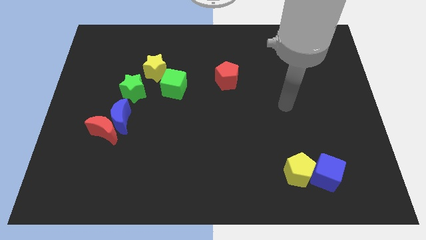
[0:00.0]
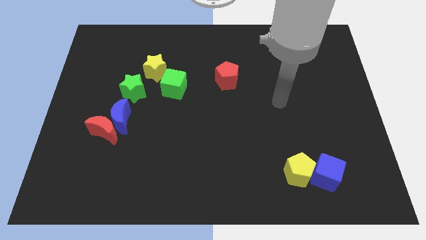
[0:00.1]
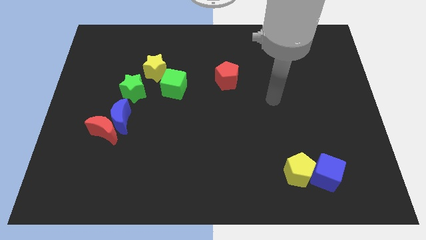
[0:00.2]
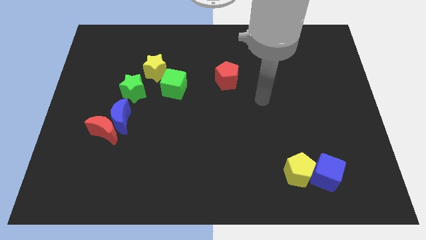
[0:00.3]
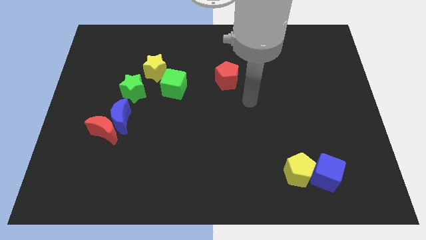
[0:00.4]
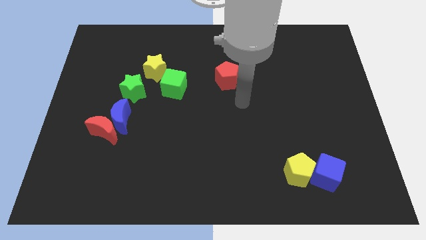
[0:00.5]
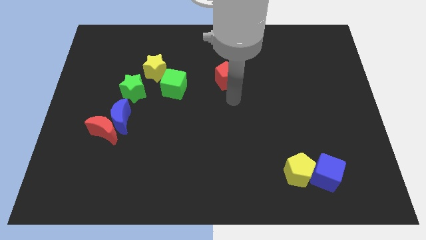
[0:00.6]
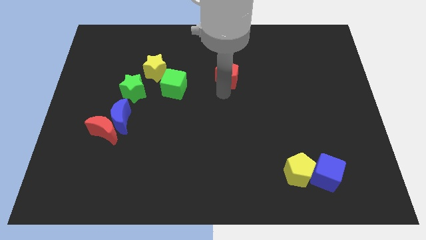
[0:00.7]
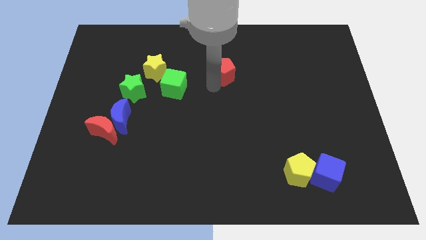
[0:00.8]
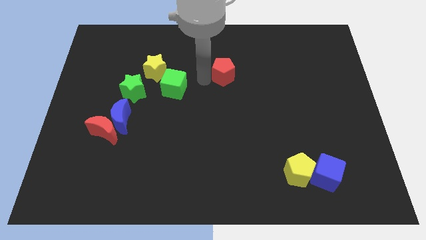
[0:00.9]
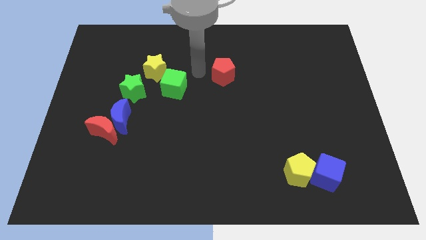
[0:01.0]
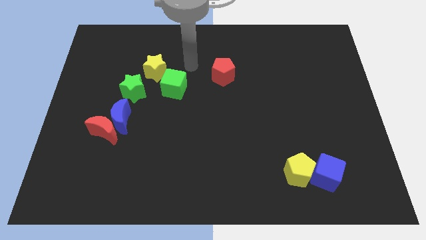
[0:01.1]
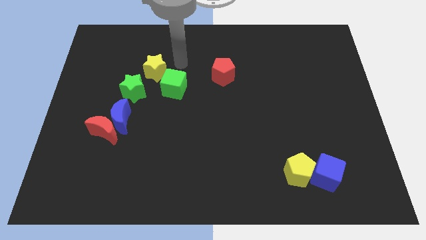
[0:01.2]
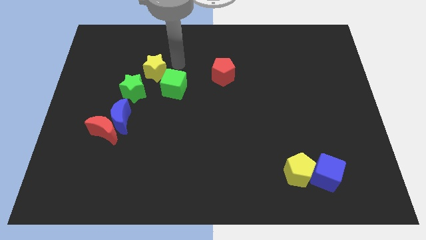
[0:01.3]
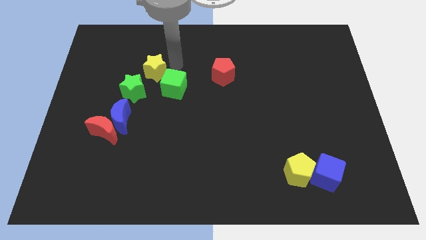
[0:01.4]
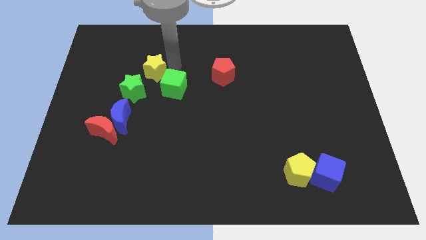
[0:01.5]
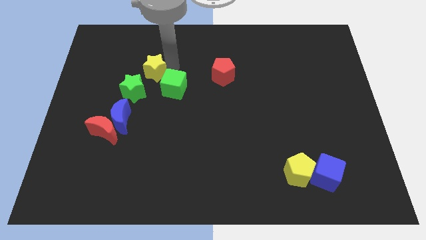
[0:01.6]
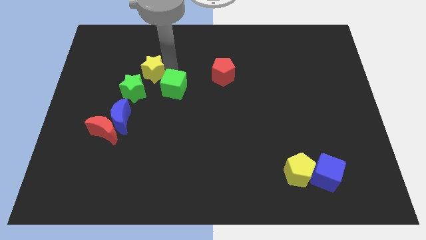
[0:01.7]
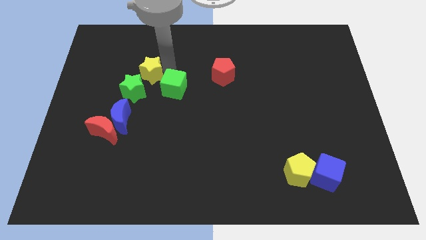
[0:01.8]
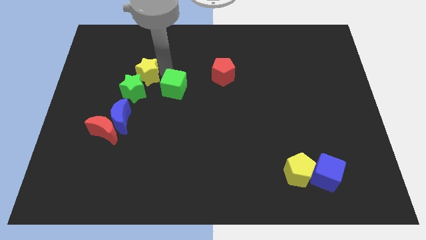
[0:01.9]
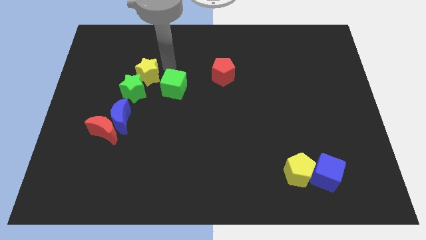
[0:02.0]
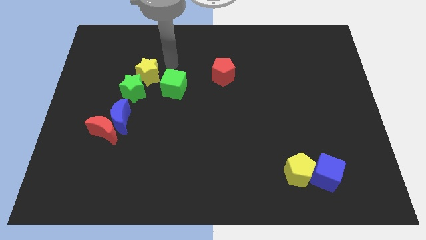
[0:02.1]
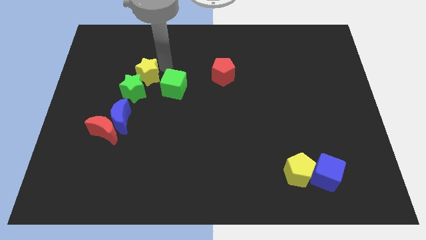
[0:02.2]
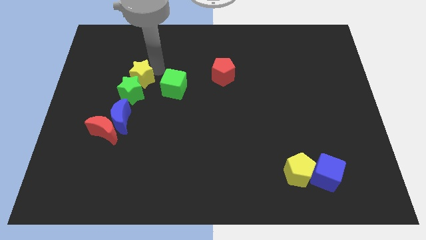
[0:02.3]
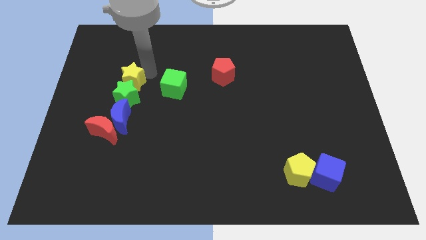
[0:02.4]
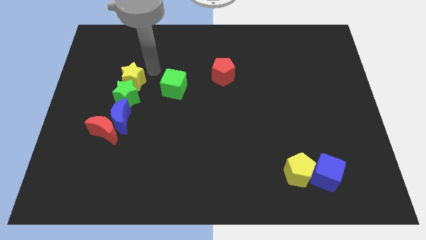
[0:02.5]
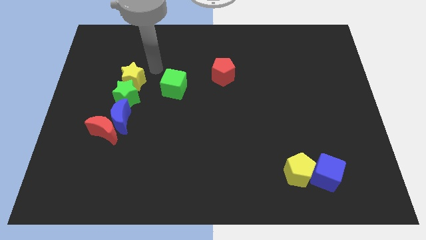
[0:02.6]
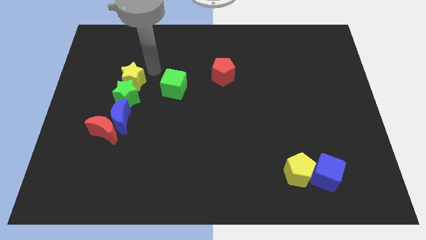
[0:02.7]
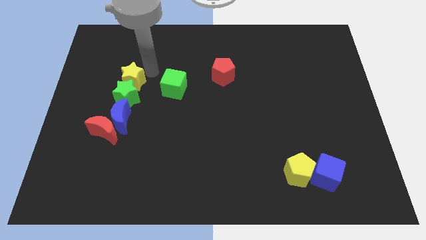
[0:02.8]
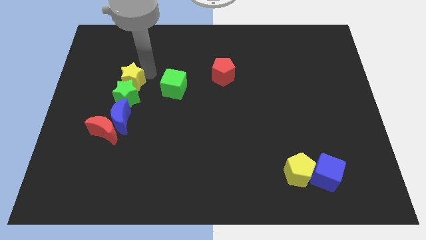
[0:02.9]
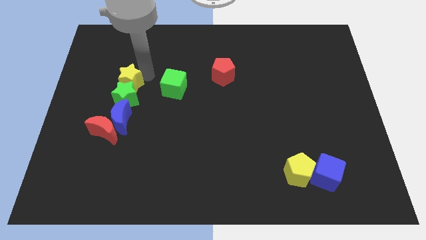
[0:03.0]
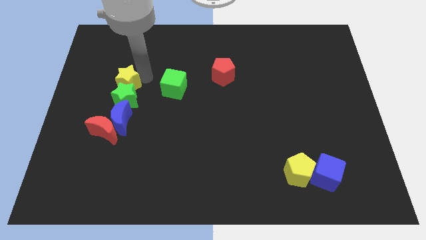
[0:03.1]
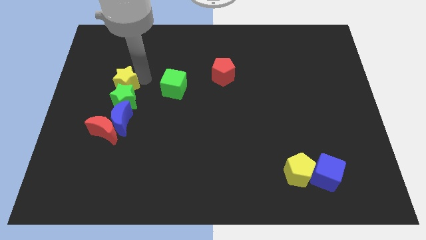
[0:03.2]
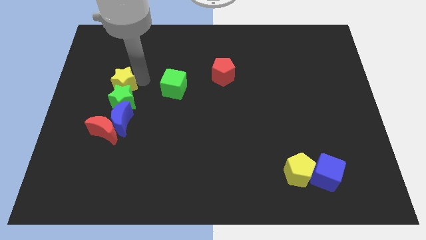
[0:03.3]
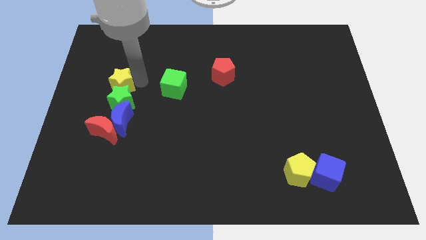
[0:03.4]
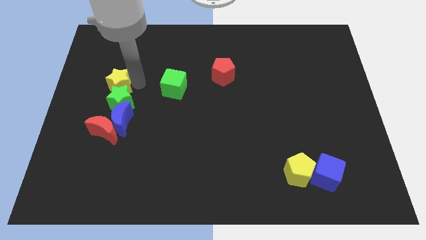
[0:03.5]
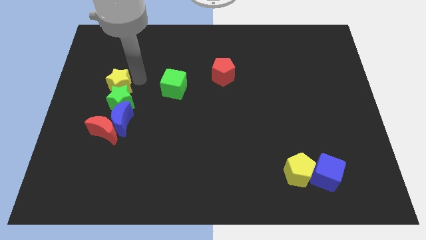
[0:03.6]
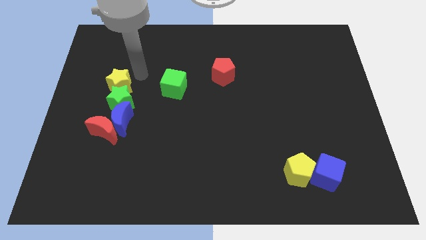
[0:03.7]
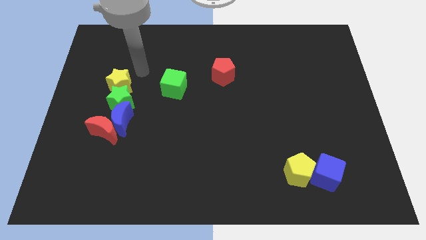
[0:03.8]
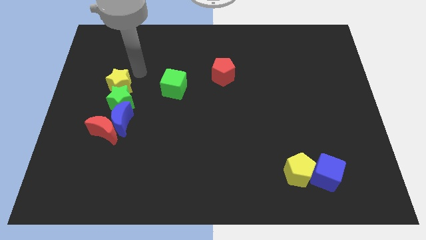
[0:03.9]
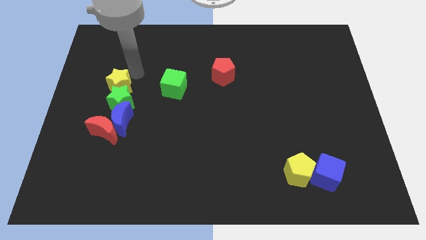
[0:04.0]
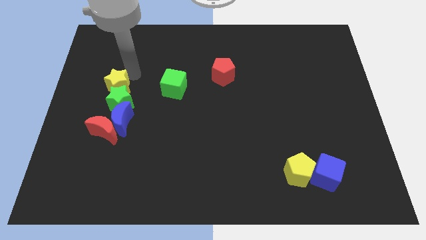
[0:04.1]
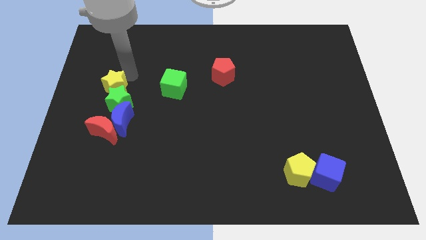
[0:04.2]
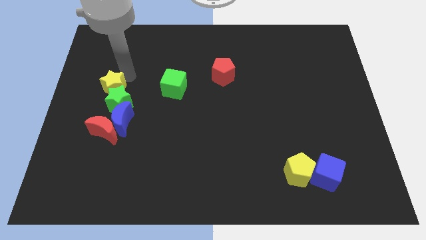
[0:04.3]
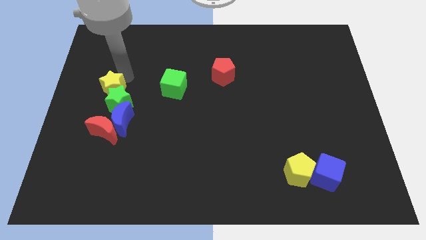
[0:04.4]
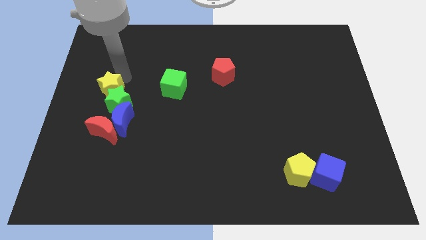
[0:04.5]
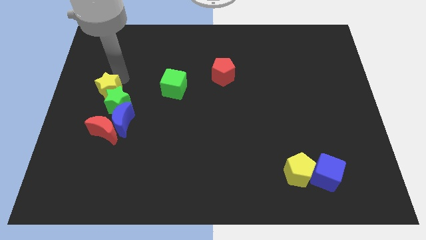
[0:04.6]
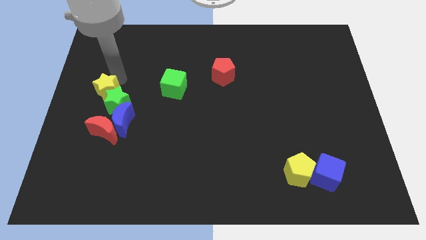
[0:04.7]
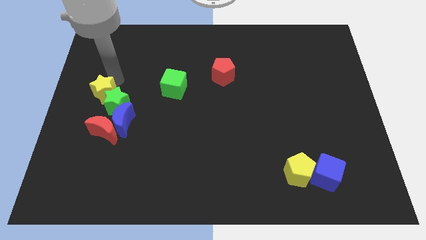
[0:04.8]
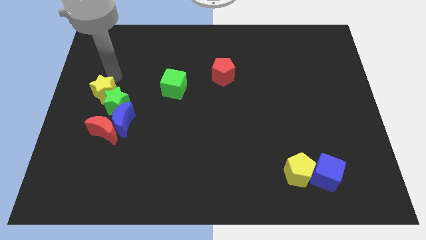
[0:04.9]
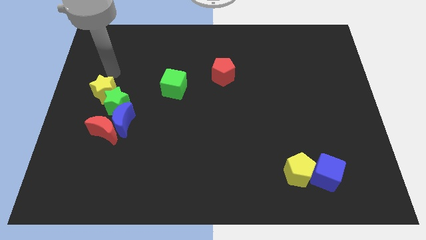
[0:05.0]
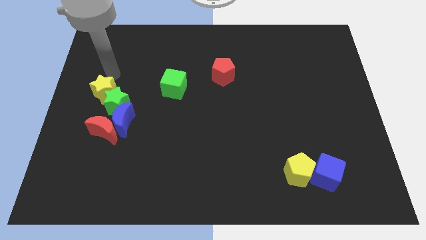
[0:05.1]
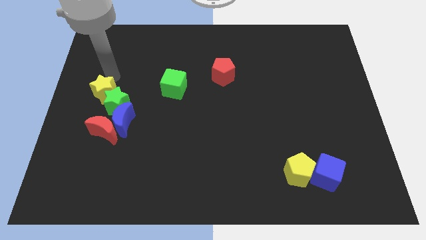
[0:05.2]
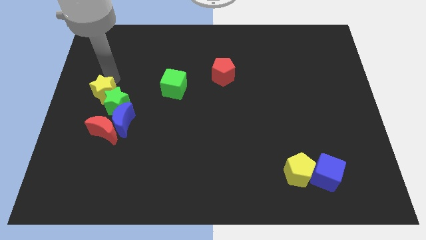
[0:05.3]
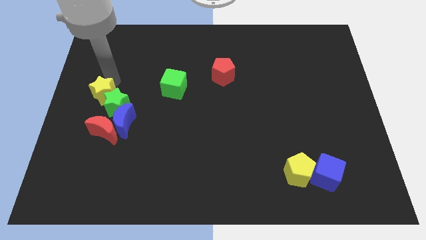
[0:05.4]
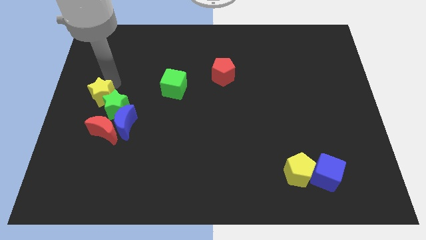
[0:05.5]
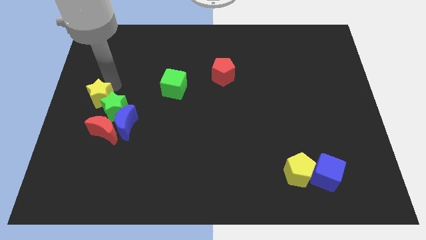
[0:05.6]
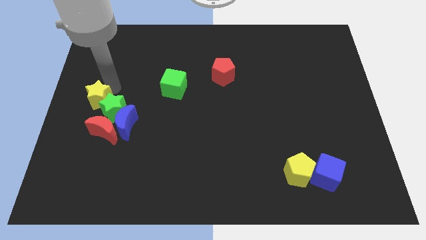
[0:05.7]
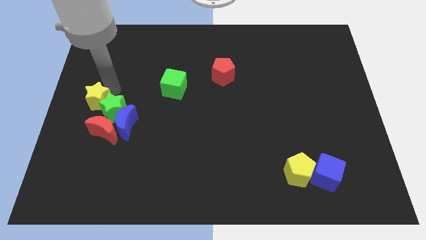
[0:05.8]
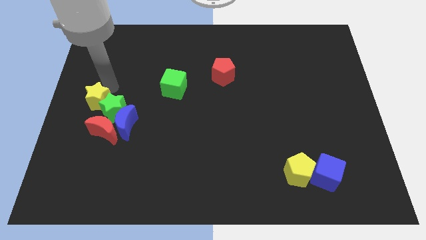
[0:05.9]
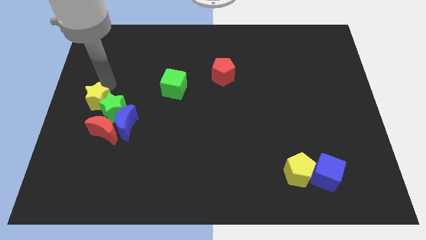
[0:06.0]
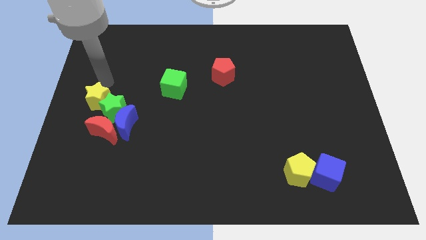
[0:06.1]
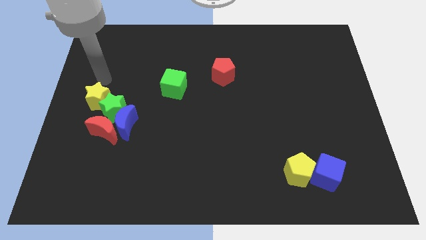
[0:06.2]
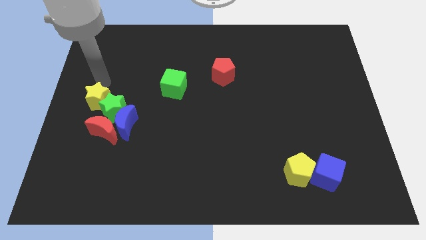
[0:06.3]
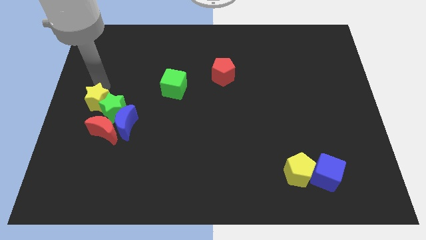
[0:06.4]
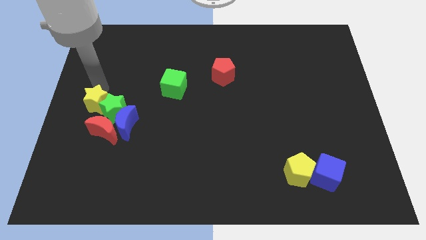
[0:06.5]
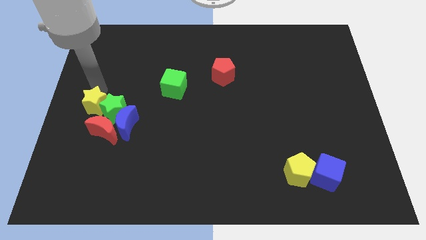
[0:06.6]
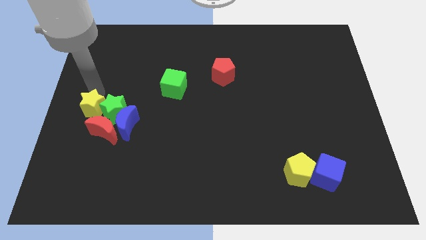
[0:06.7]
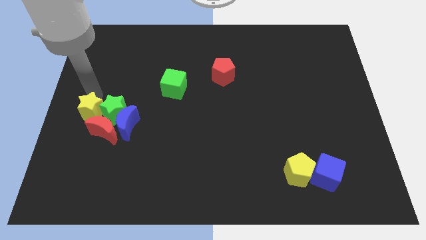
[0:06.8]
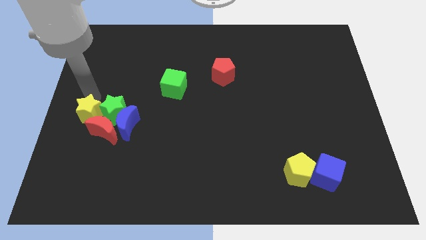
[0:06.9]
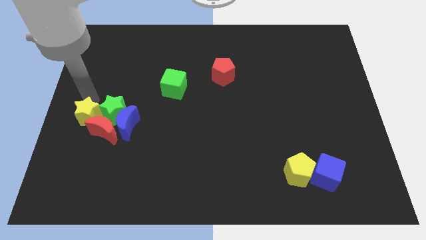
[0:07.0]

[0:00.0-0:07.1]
slide the yellow star next to the red moon

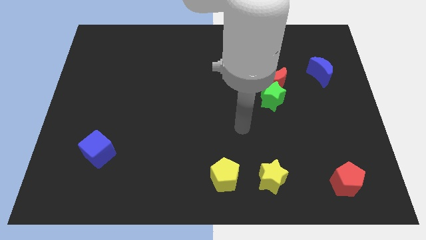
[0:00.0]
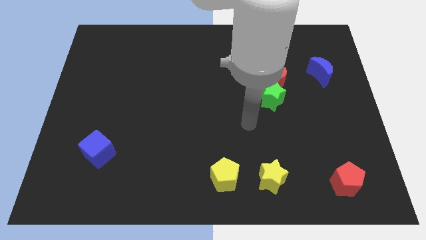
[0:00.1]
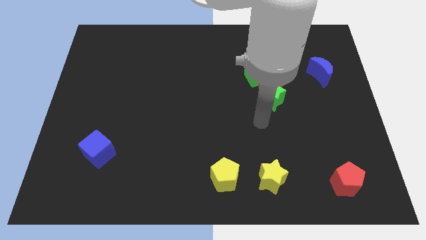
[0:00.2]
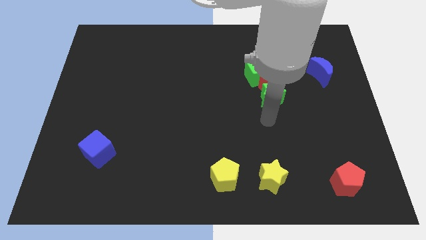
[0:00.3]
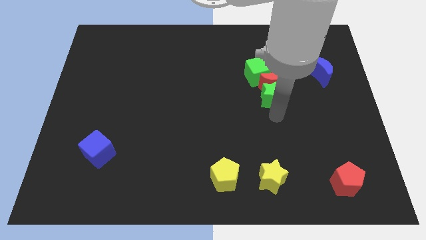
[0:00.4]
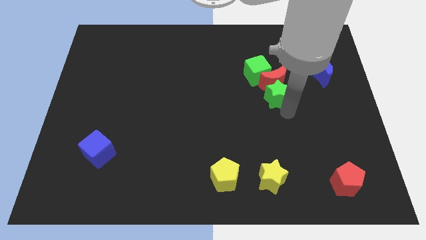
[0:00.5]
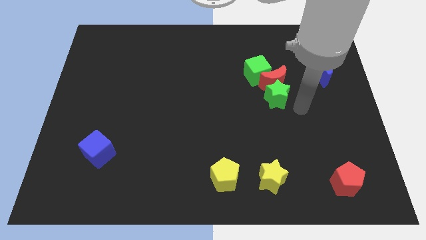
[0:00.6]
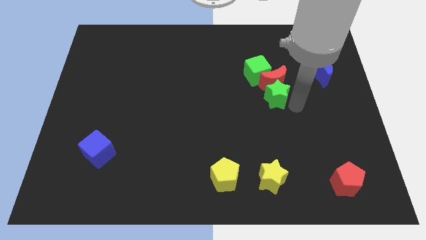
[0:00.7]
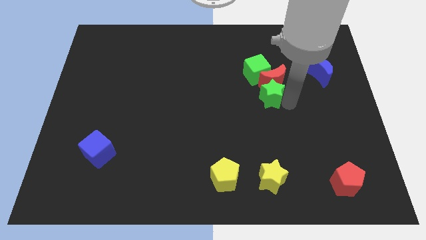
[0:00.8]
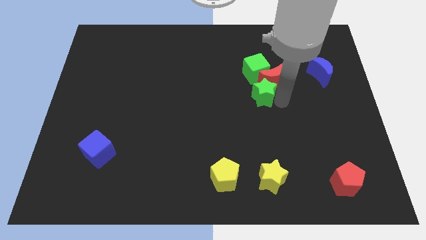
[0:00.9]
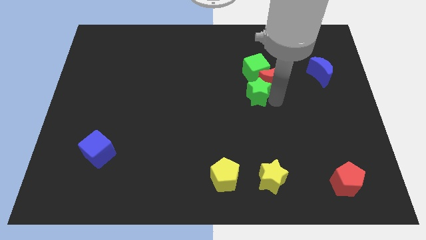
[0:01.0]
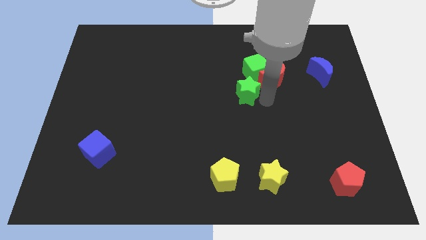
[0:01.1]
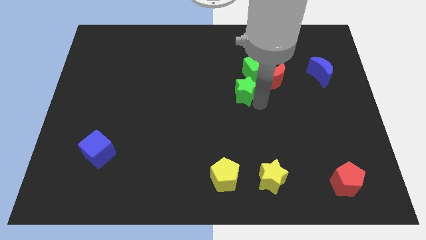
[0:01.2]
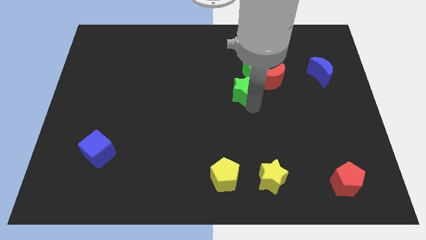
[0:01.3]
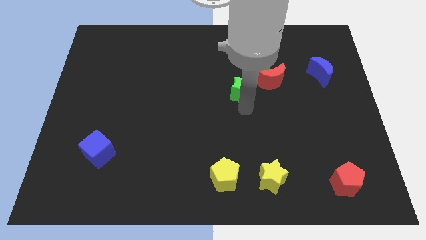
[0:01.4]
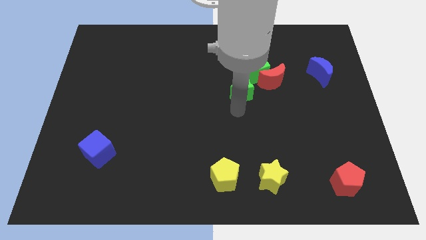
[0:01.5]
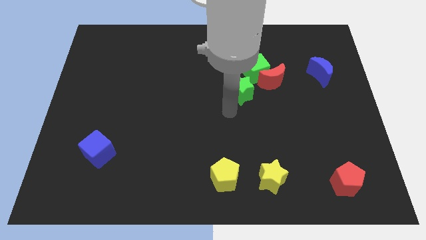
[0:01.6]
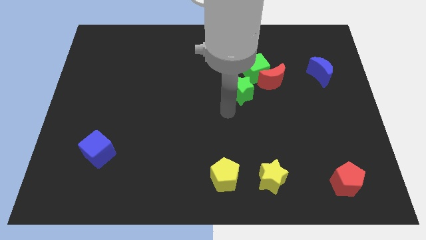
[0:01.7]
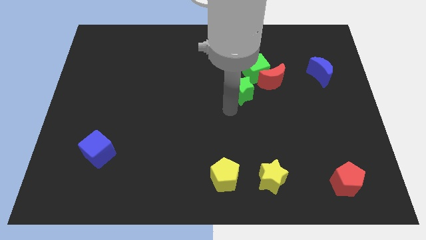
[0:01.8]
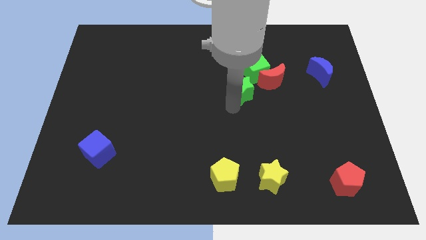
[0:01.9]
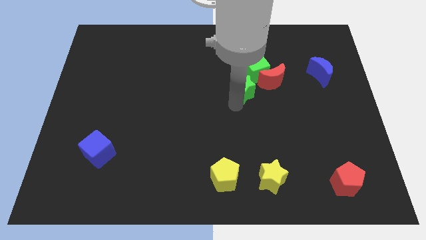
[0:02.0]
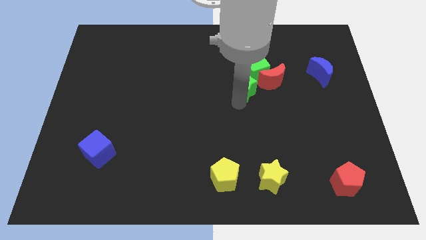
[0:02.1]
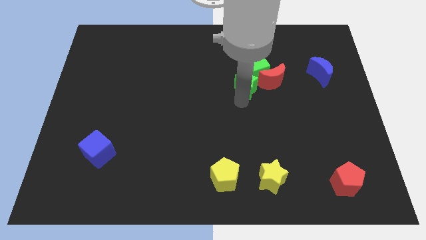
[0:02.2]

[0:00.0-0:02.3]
move the green star close to the green cube
